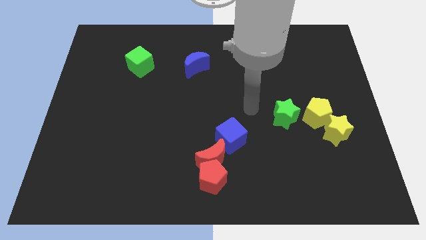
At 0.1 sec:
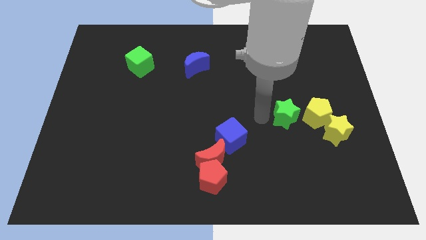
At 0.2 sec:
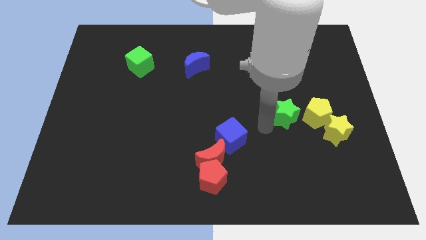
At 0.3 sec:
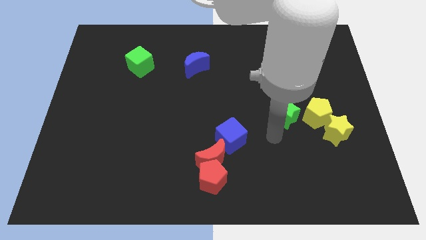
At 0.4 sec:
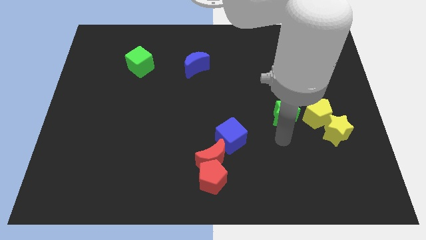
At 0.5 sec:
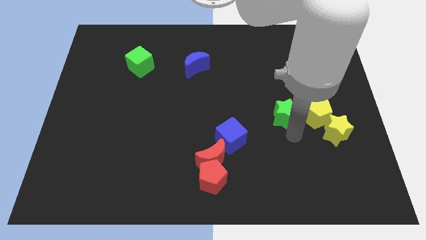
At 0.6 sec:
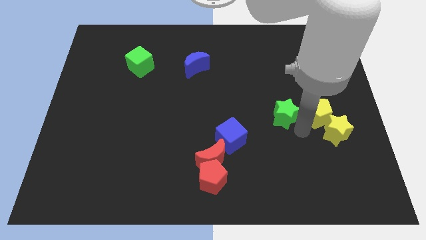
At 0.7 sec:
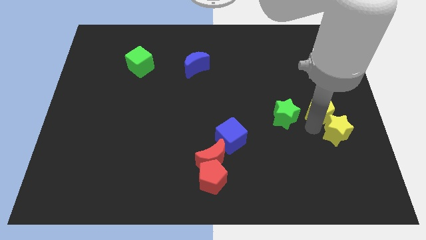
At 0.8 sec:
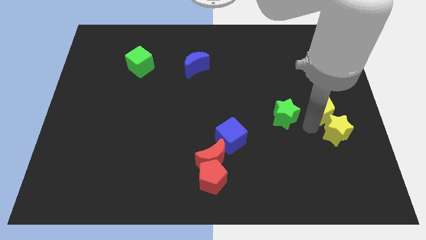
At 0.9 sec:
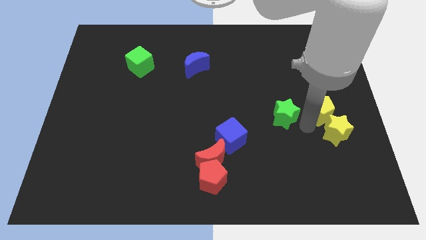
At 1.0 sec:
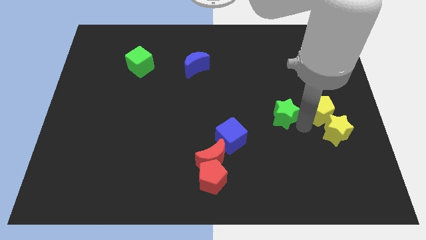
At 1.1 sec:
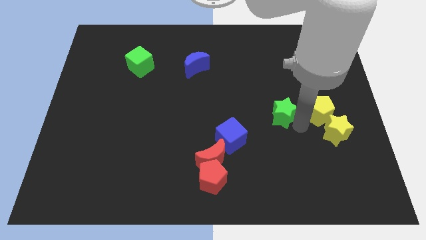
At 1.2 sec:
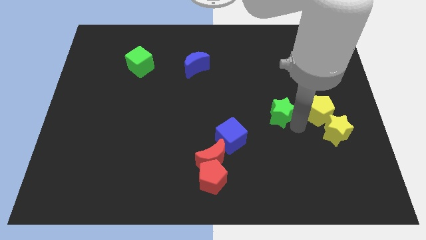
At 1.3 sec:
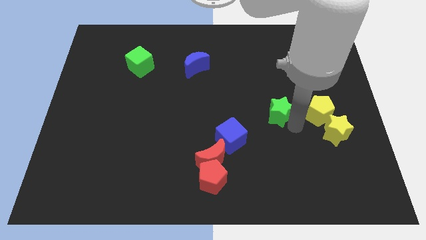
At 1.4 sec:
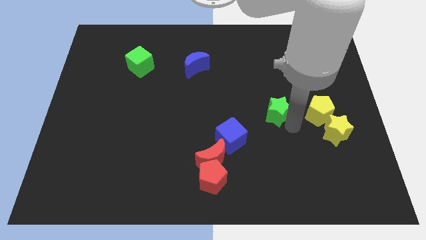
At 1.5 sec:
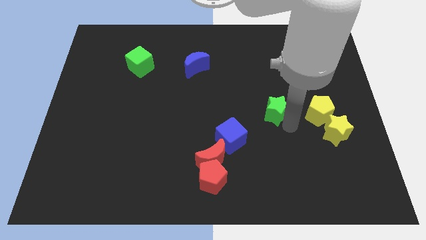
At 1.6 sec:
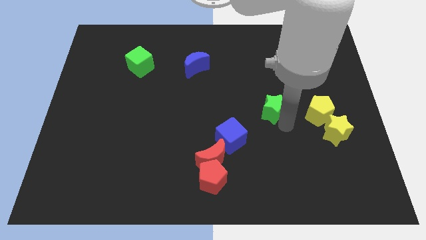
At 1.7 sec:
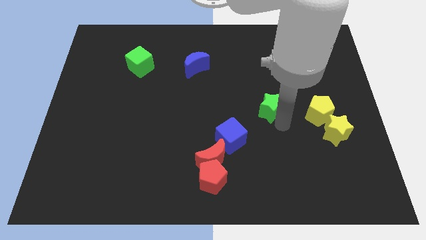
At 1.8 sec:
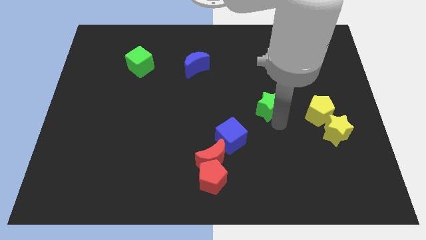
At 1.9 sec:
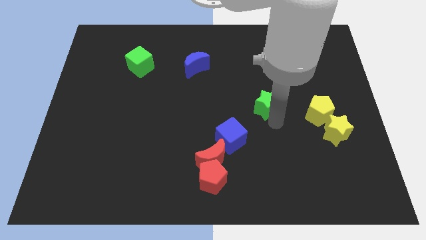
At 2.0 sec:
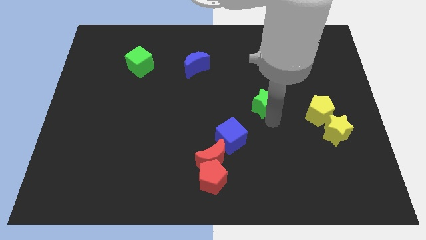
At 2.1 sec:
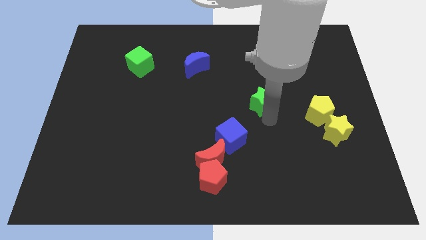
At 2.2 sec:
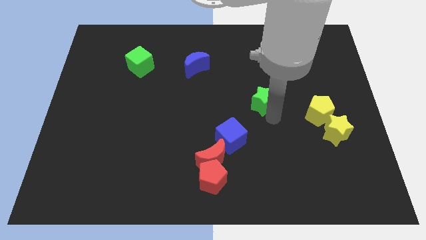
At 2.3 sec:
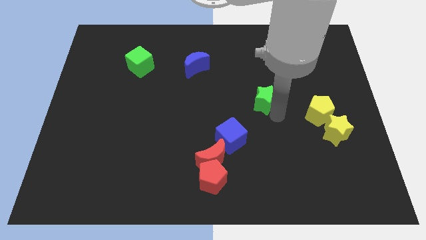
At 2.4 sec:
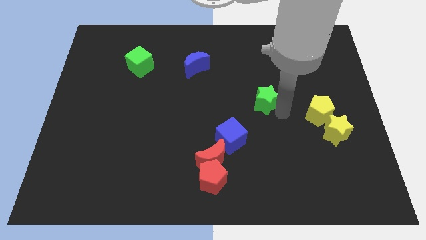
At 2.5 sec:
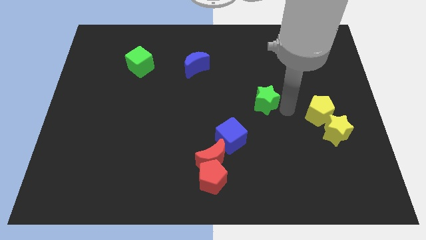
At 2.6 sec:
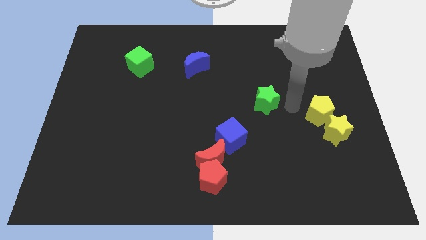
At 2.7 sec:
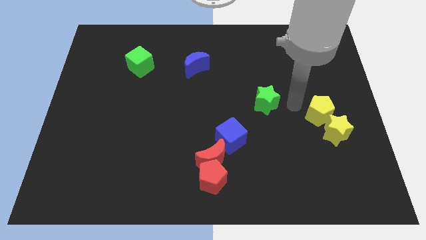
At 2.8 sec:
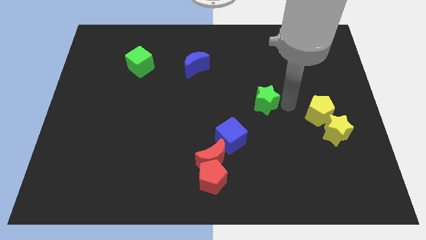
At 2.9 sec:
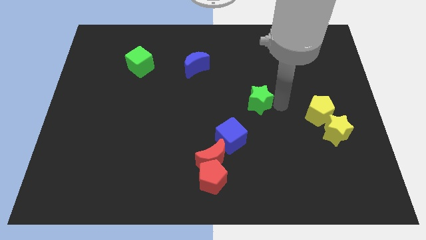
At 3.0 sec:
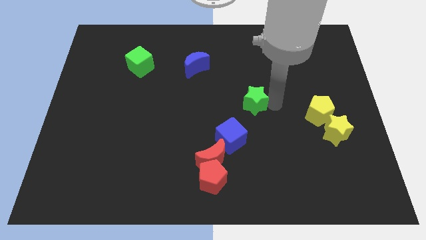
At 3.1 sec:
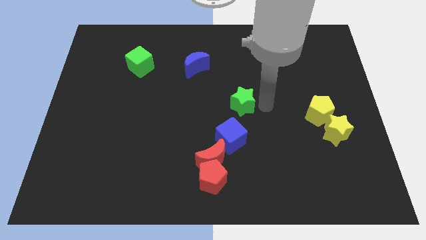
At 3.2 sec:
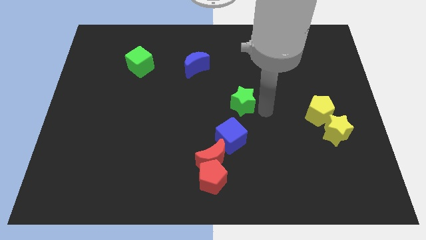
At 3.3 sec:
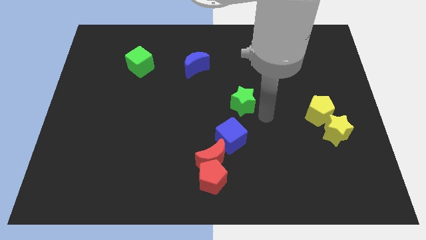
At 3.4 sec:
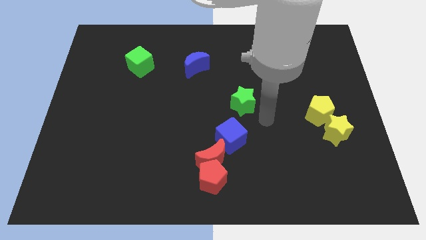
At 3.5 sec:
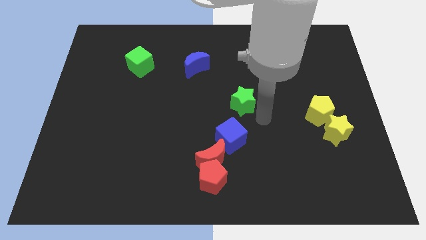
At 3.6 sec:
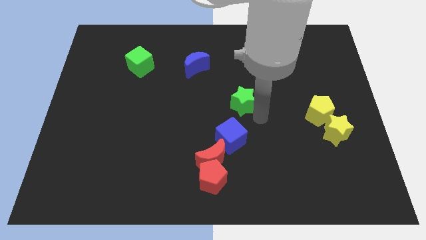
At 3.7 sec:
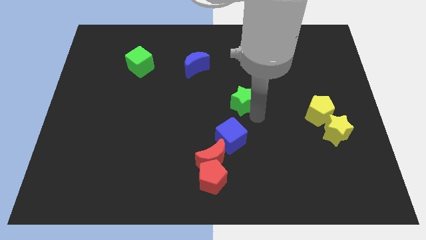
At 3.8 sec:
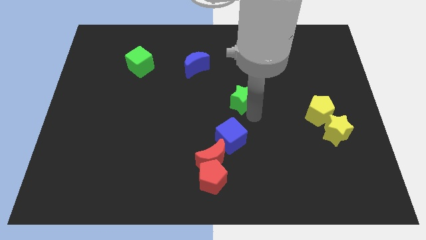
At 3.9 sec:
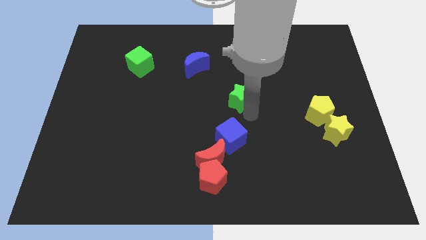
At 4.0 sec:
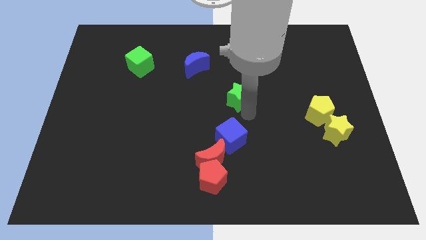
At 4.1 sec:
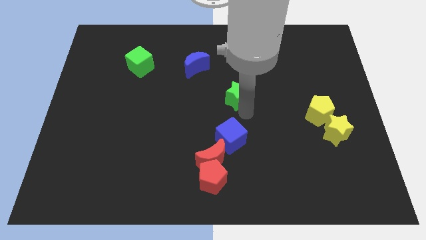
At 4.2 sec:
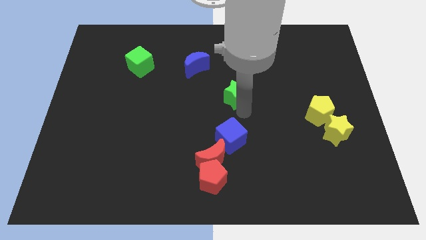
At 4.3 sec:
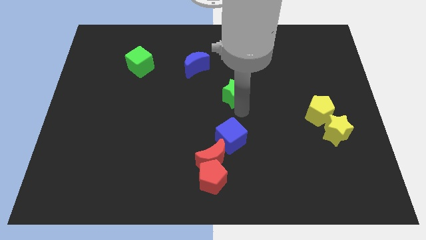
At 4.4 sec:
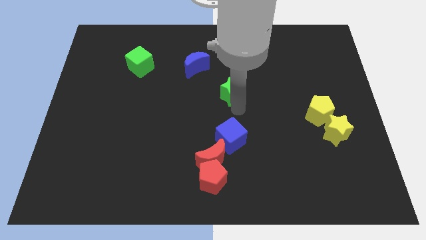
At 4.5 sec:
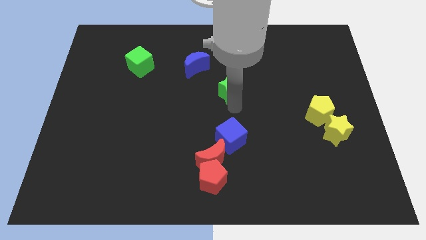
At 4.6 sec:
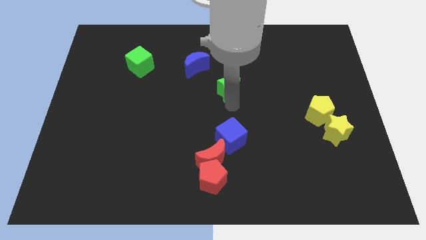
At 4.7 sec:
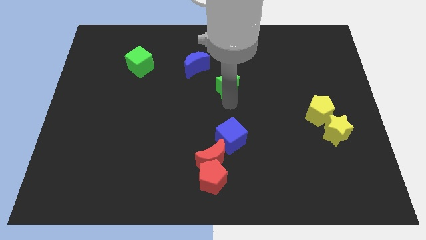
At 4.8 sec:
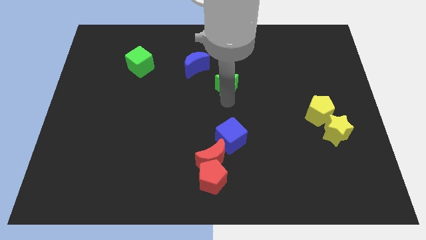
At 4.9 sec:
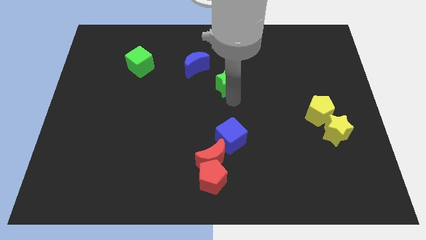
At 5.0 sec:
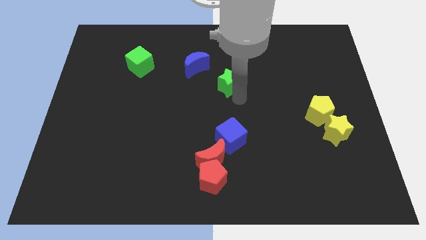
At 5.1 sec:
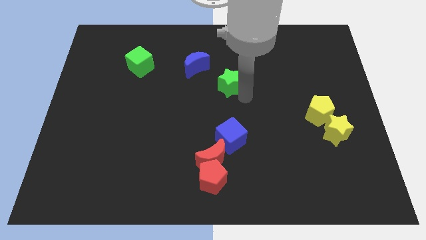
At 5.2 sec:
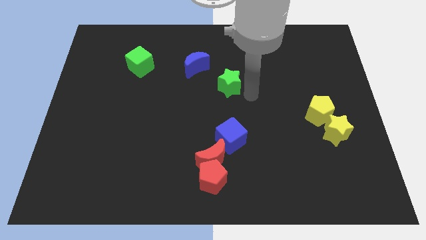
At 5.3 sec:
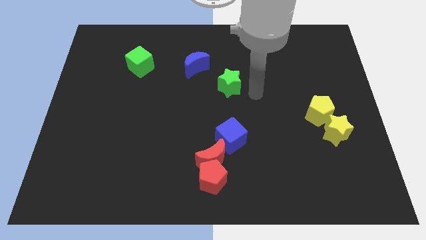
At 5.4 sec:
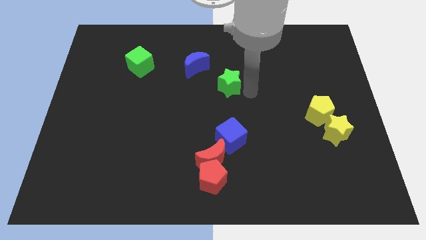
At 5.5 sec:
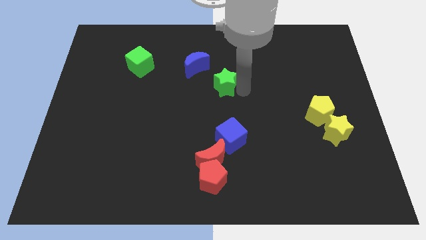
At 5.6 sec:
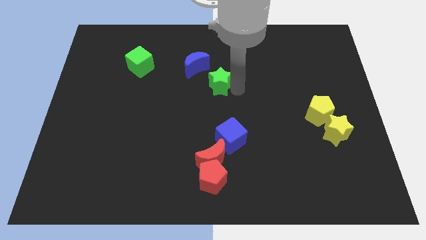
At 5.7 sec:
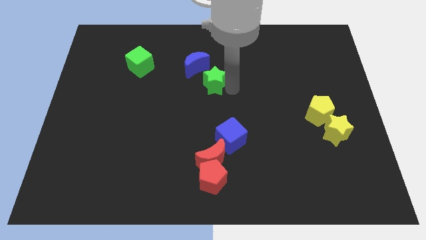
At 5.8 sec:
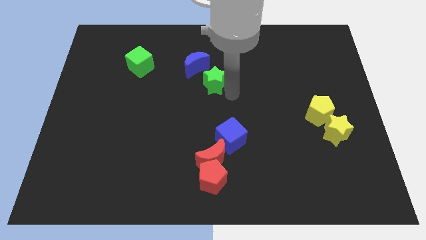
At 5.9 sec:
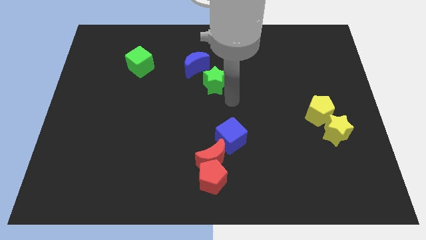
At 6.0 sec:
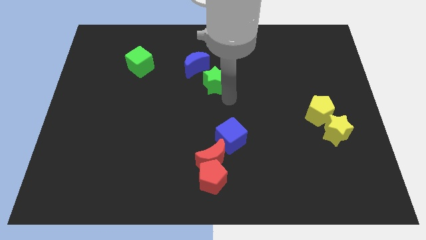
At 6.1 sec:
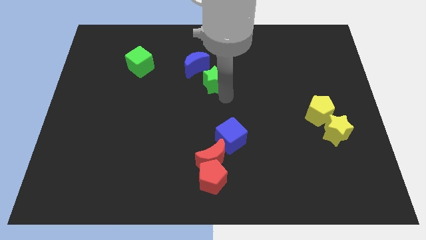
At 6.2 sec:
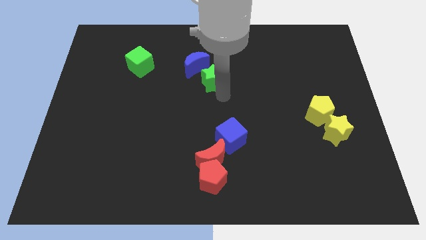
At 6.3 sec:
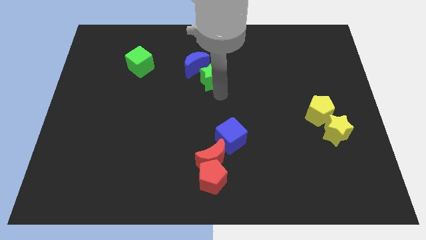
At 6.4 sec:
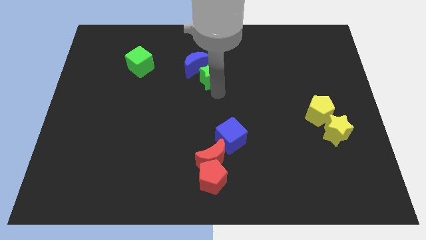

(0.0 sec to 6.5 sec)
slide the green star to the blue moon

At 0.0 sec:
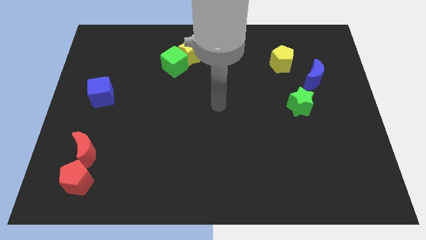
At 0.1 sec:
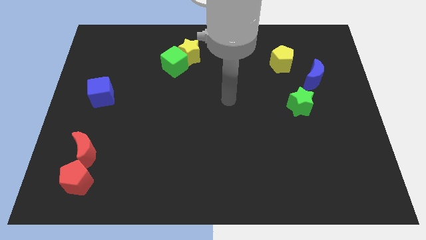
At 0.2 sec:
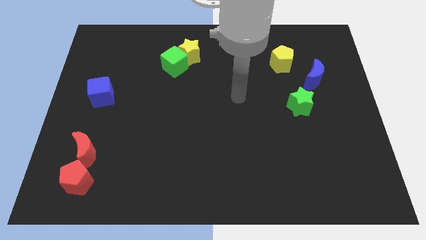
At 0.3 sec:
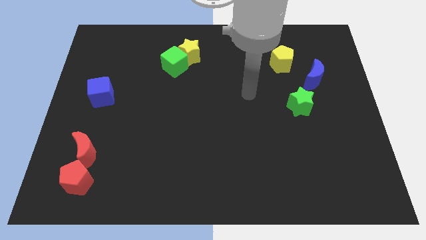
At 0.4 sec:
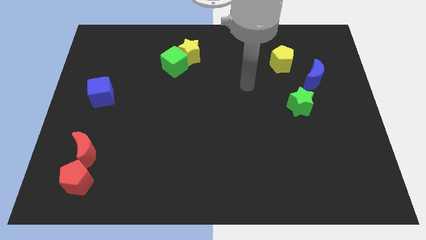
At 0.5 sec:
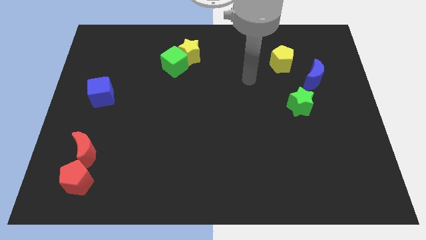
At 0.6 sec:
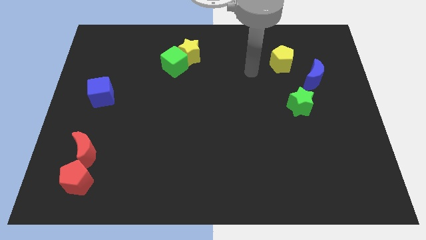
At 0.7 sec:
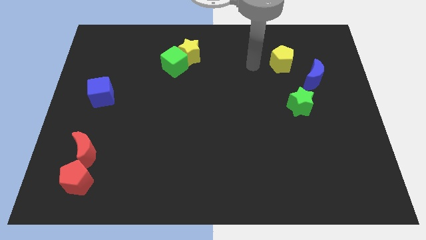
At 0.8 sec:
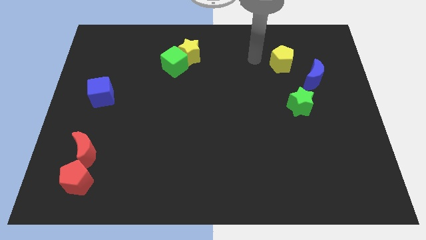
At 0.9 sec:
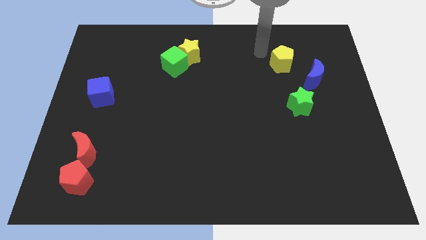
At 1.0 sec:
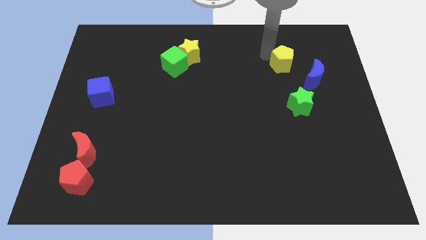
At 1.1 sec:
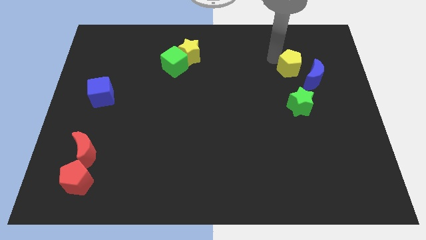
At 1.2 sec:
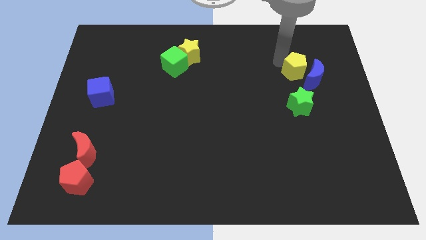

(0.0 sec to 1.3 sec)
move the yellow pentagon towards the blue moon
